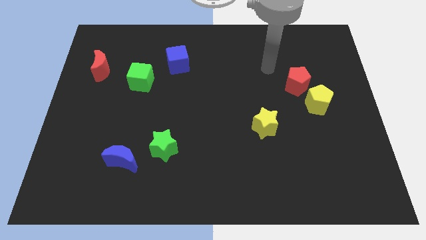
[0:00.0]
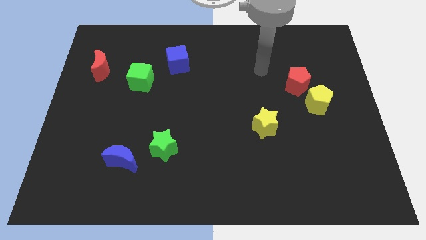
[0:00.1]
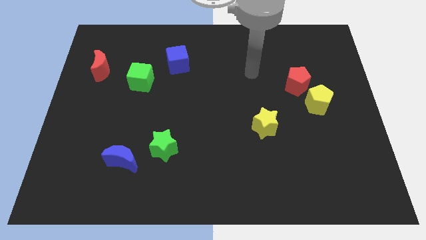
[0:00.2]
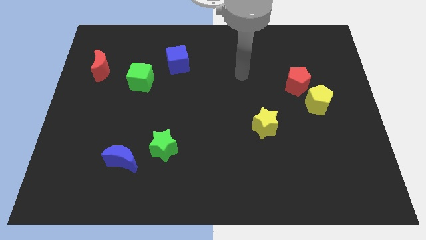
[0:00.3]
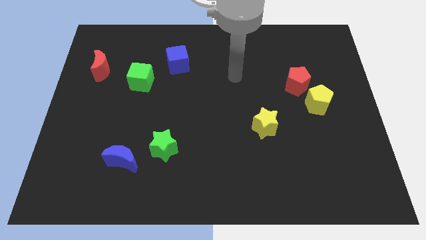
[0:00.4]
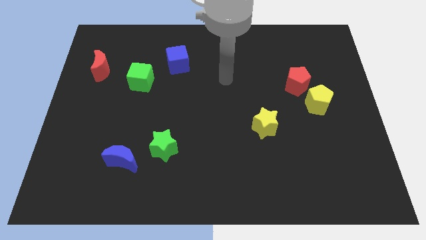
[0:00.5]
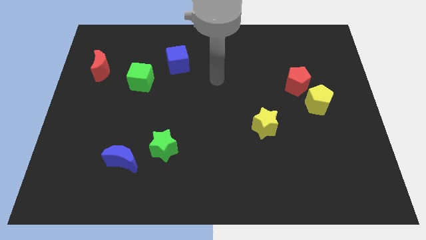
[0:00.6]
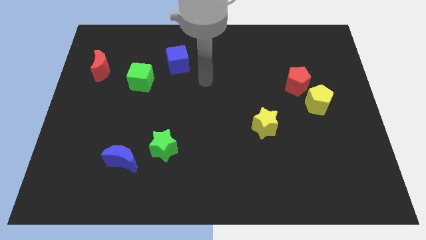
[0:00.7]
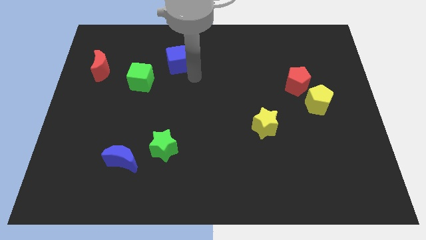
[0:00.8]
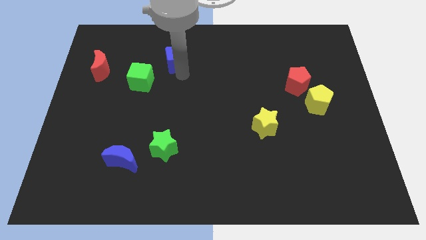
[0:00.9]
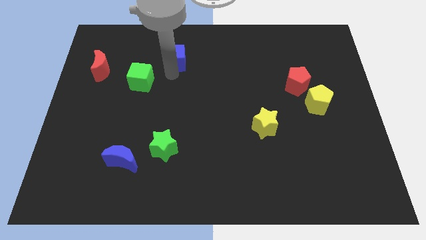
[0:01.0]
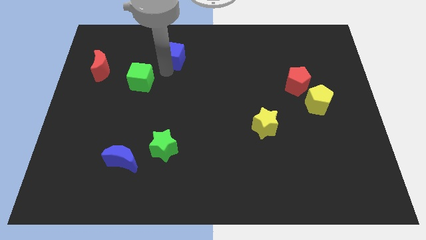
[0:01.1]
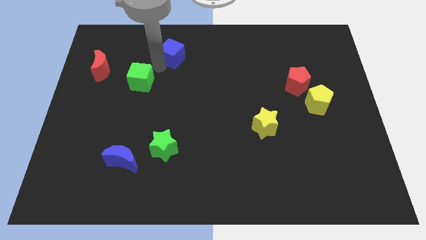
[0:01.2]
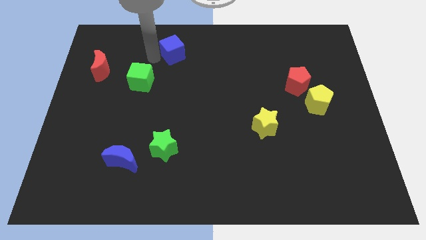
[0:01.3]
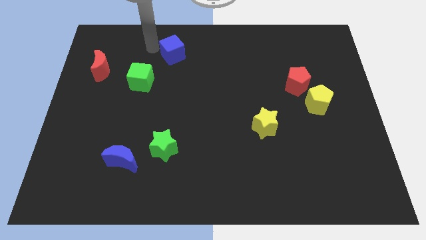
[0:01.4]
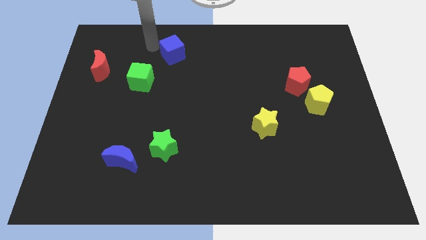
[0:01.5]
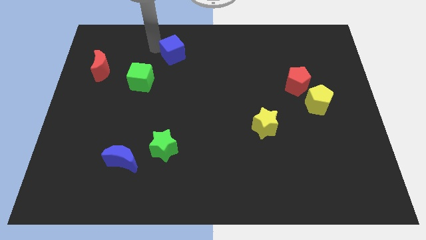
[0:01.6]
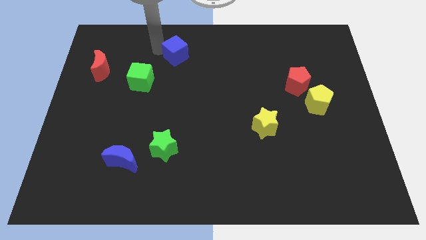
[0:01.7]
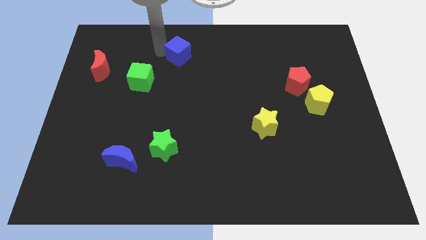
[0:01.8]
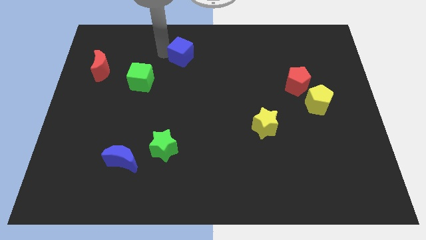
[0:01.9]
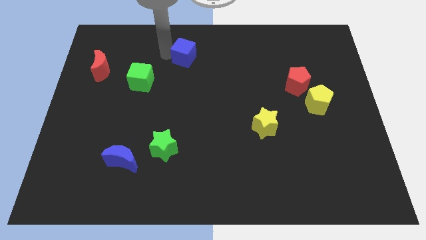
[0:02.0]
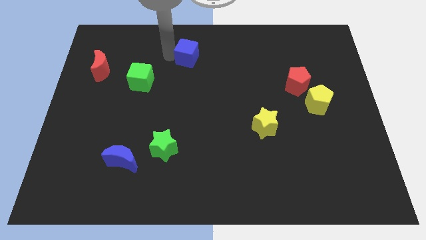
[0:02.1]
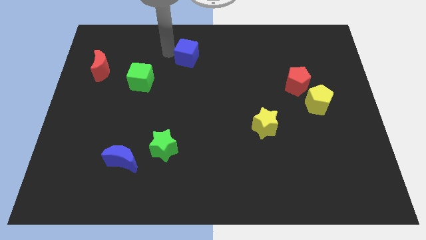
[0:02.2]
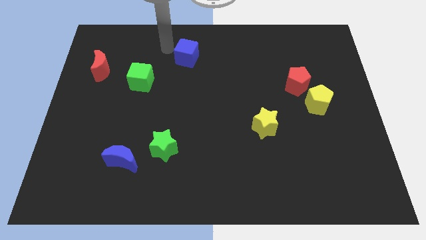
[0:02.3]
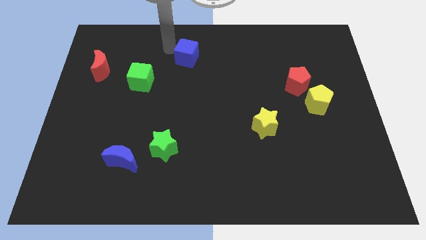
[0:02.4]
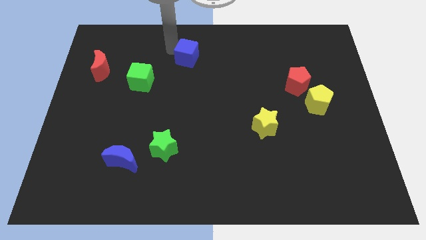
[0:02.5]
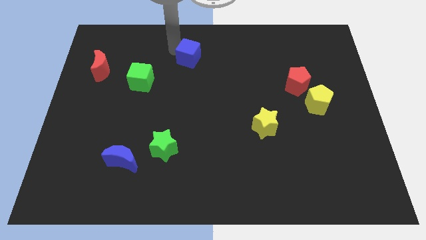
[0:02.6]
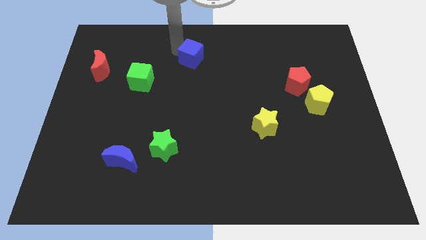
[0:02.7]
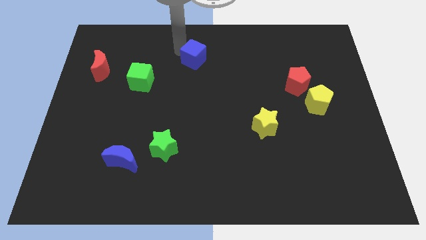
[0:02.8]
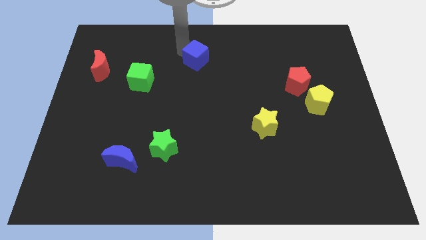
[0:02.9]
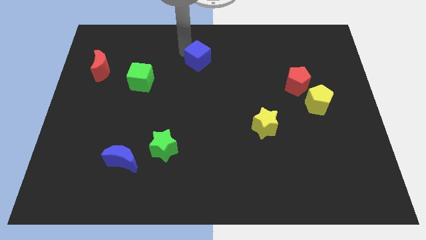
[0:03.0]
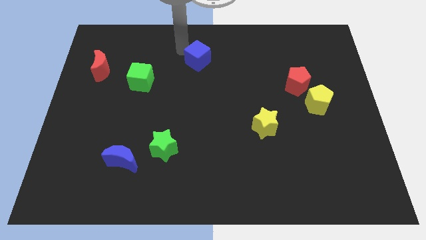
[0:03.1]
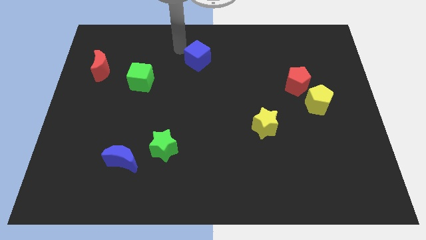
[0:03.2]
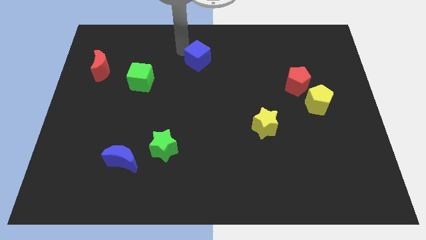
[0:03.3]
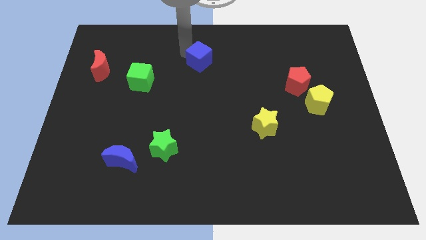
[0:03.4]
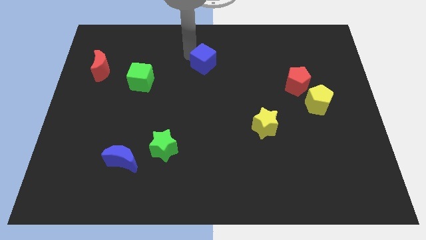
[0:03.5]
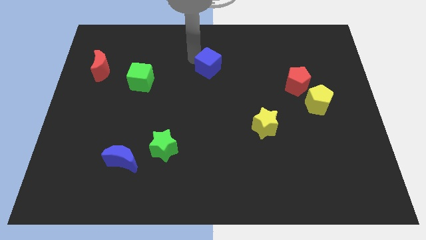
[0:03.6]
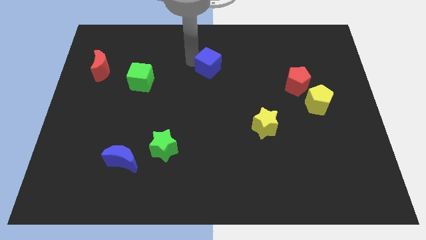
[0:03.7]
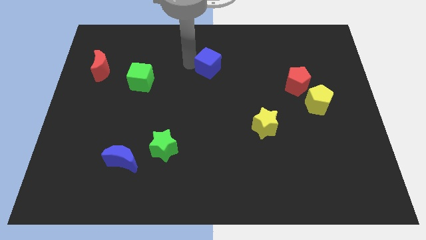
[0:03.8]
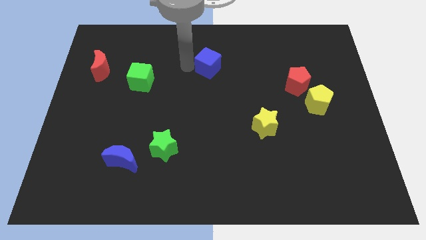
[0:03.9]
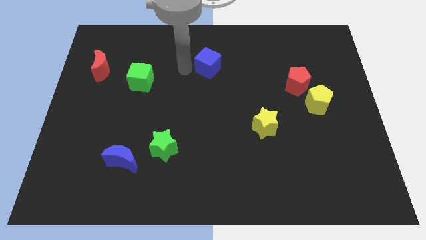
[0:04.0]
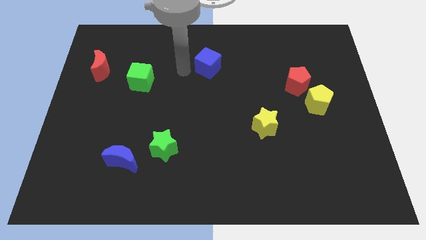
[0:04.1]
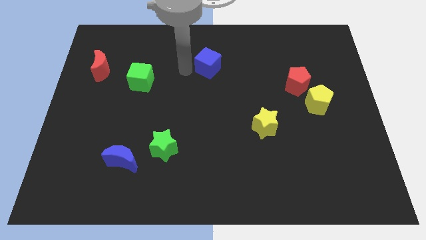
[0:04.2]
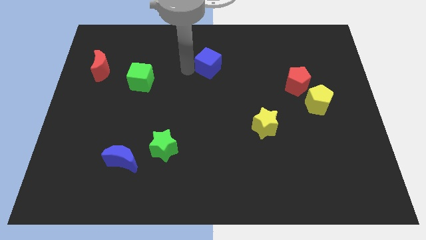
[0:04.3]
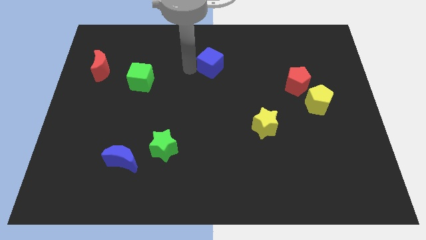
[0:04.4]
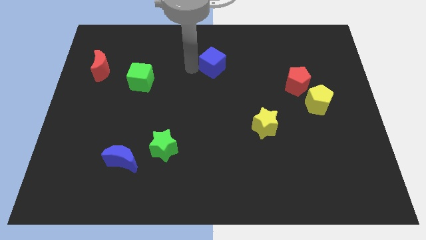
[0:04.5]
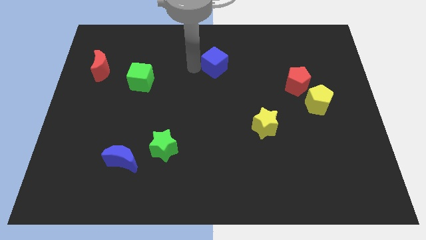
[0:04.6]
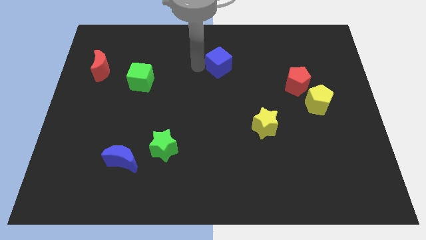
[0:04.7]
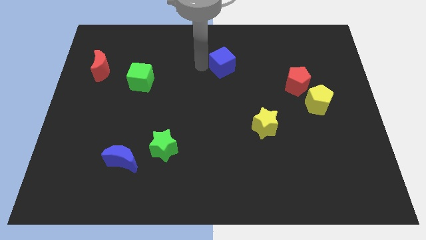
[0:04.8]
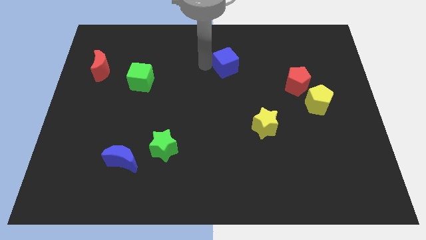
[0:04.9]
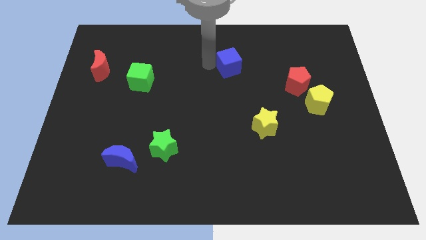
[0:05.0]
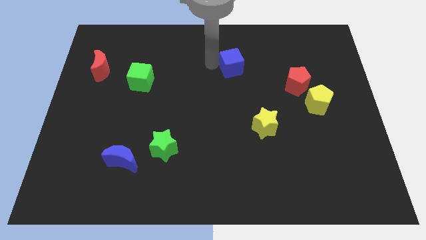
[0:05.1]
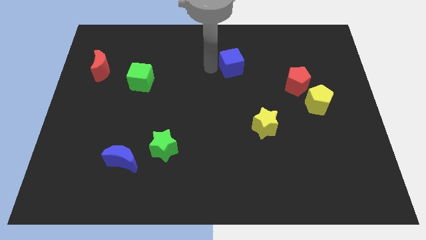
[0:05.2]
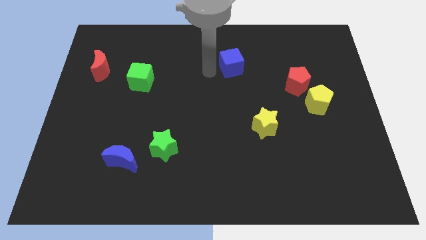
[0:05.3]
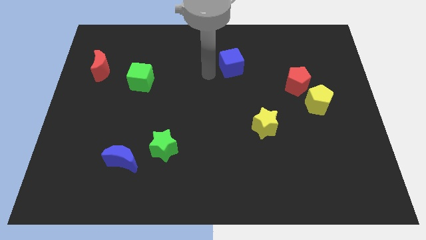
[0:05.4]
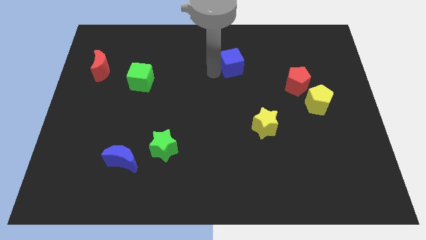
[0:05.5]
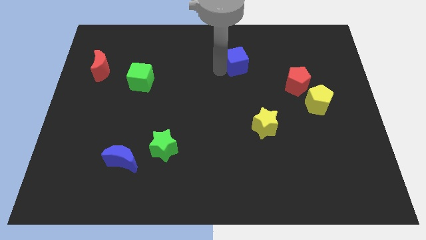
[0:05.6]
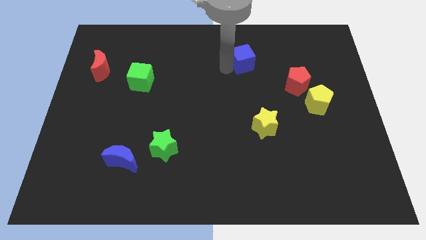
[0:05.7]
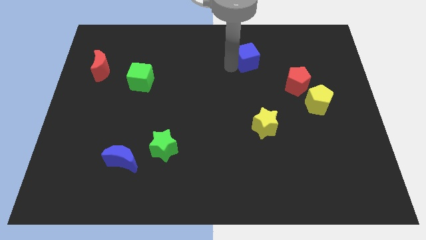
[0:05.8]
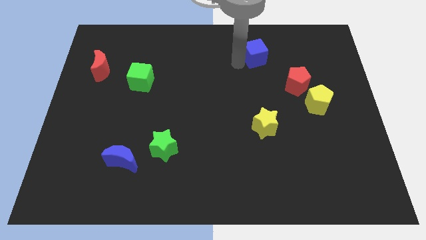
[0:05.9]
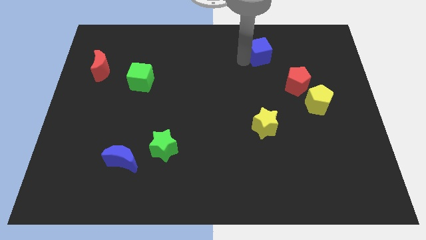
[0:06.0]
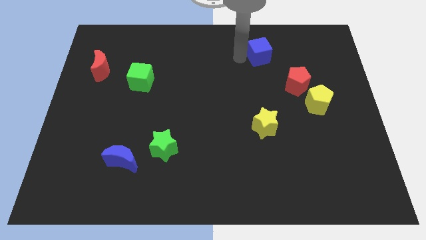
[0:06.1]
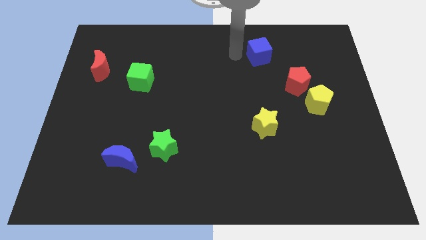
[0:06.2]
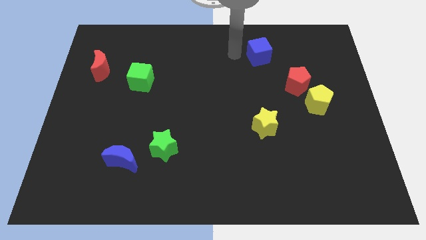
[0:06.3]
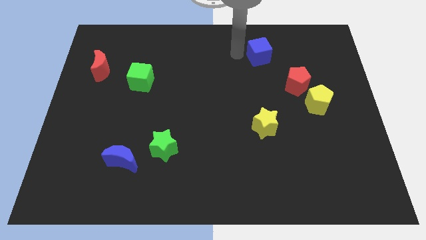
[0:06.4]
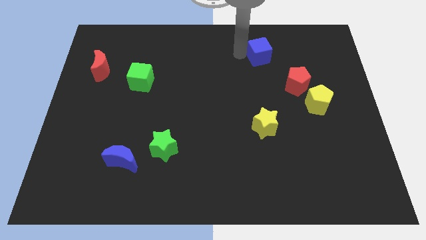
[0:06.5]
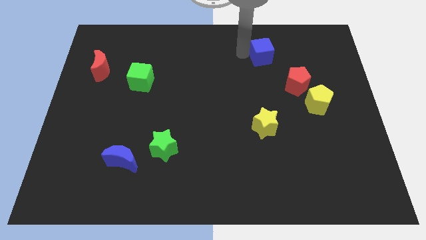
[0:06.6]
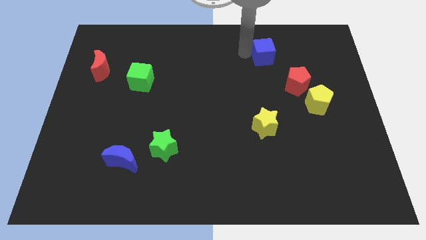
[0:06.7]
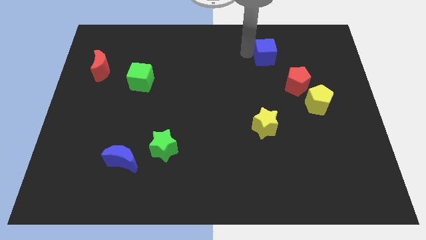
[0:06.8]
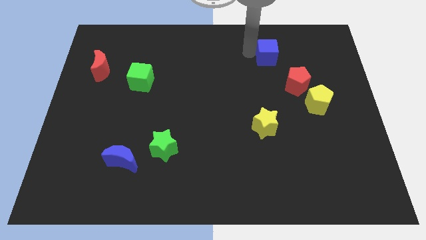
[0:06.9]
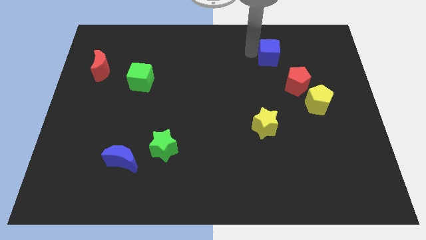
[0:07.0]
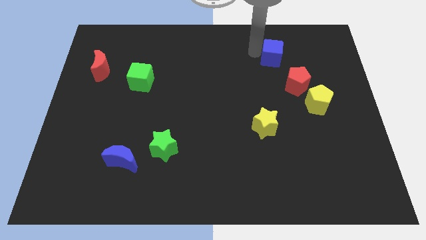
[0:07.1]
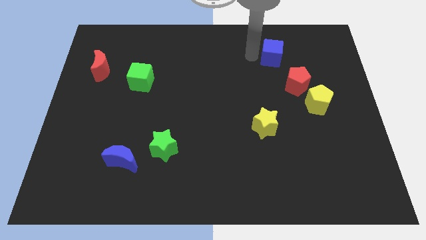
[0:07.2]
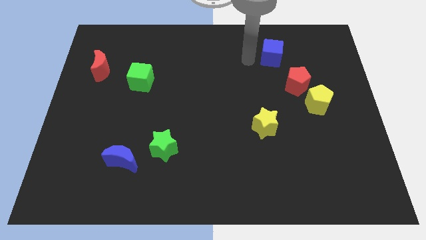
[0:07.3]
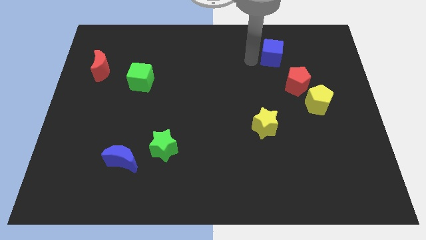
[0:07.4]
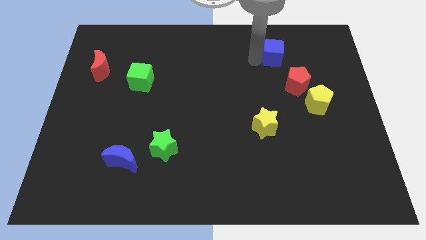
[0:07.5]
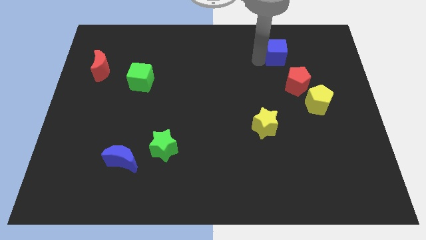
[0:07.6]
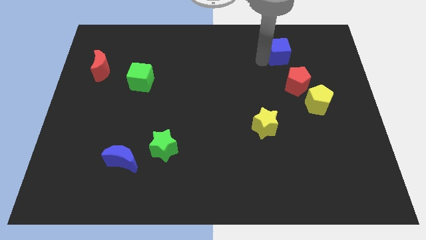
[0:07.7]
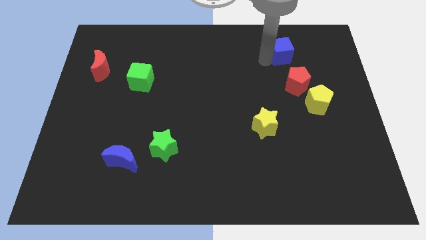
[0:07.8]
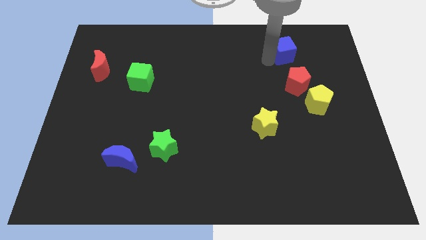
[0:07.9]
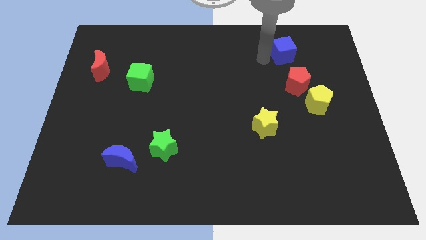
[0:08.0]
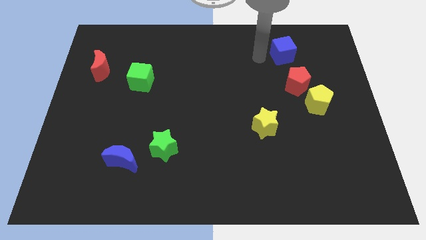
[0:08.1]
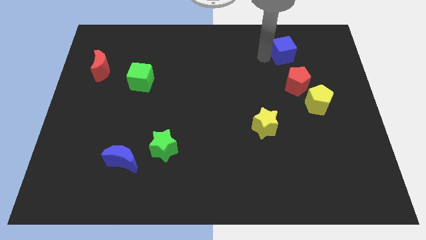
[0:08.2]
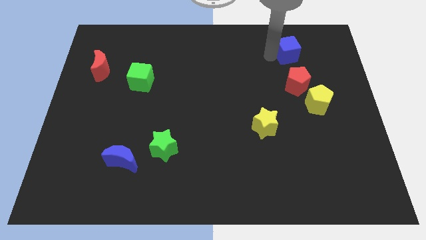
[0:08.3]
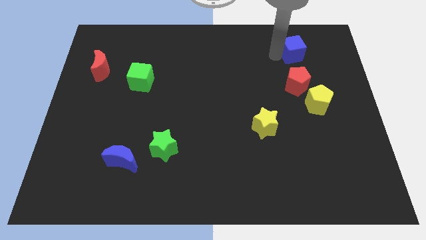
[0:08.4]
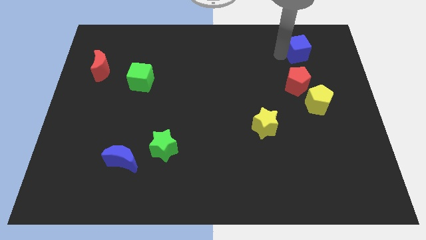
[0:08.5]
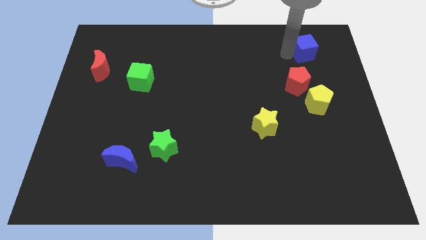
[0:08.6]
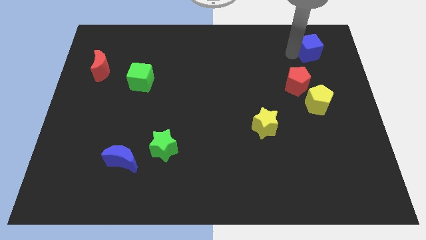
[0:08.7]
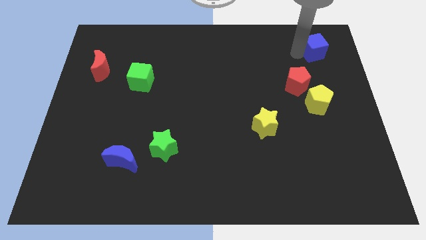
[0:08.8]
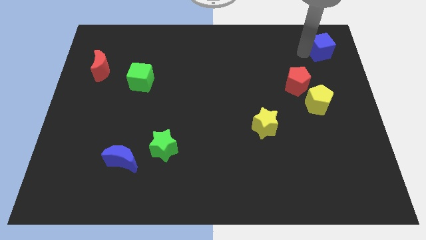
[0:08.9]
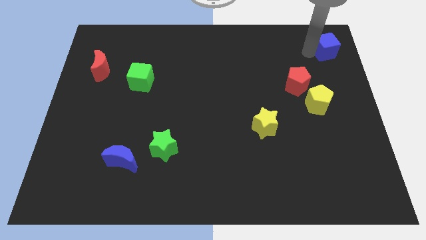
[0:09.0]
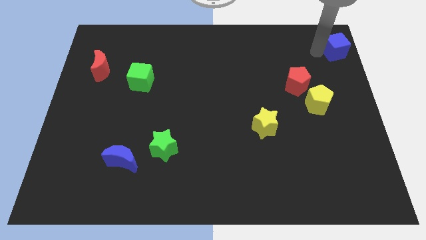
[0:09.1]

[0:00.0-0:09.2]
slide the blue cube to the top right corner
